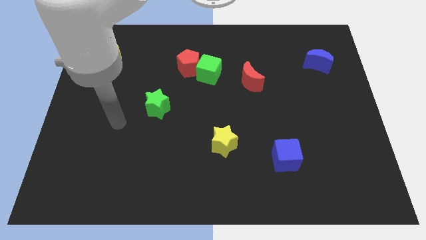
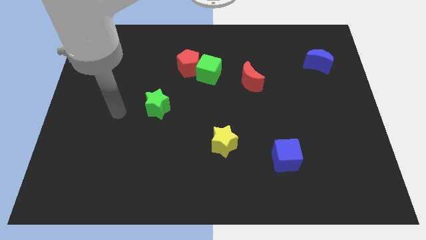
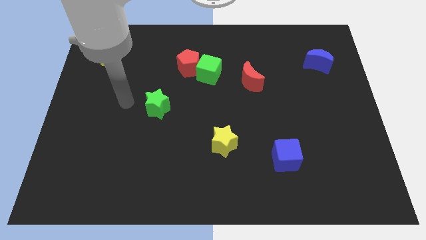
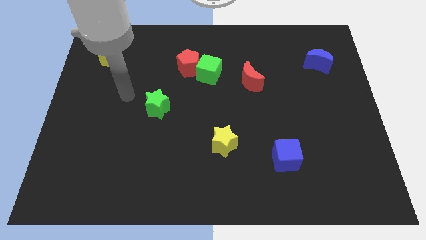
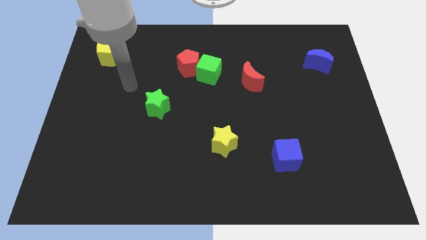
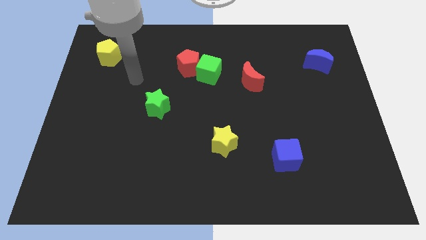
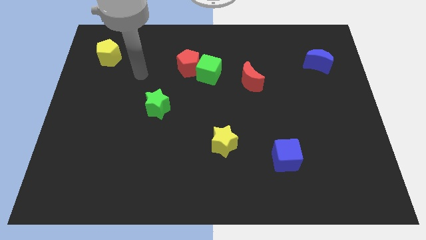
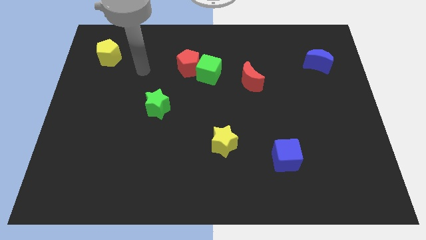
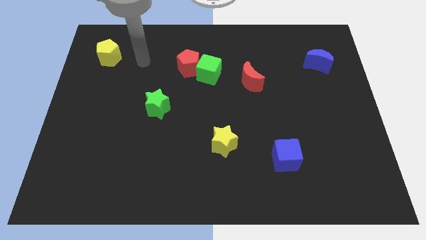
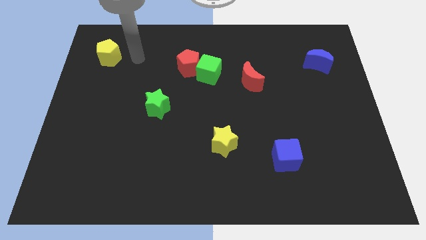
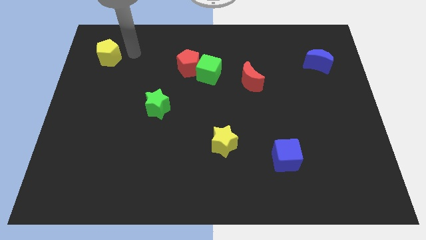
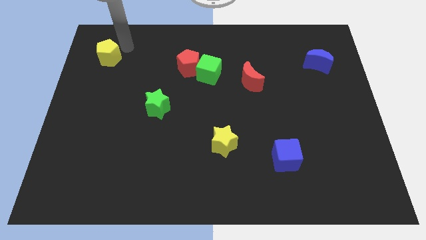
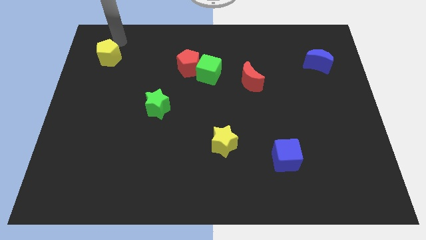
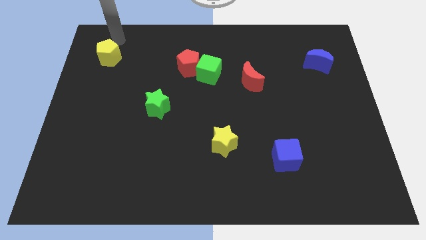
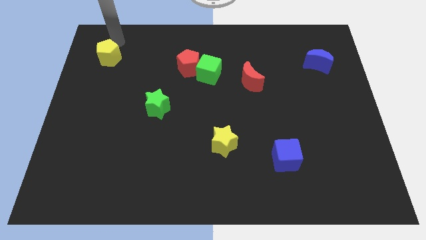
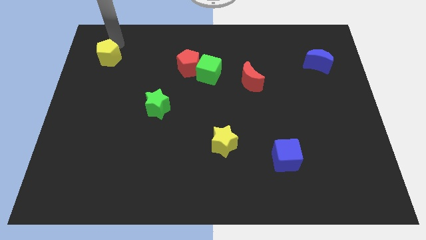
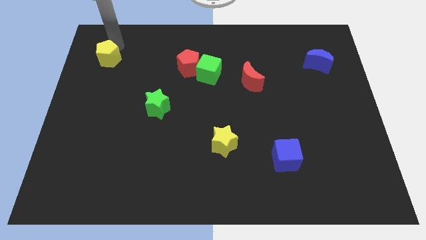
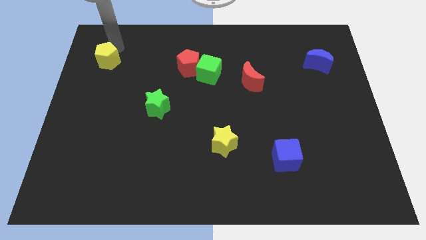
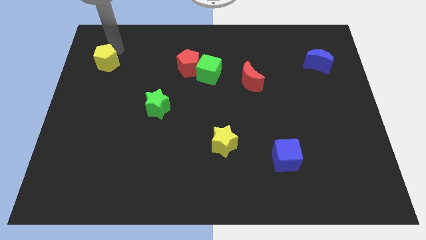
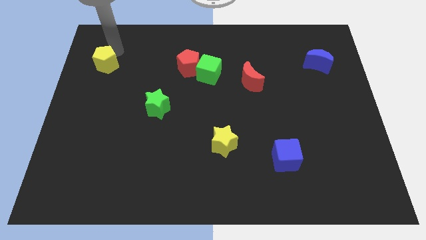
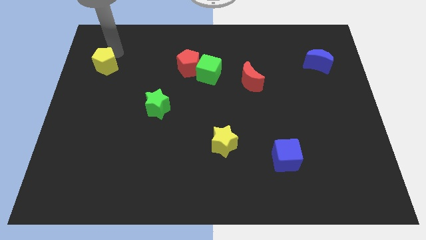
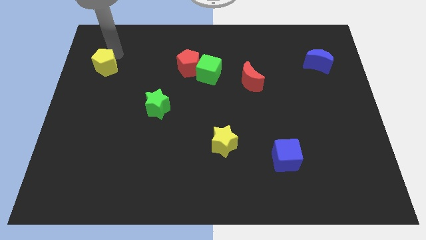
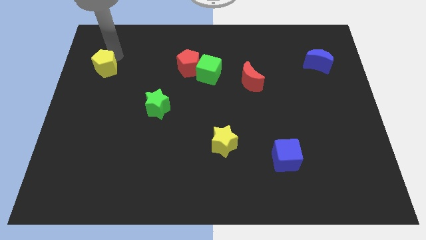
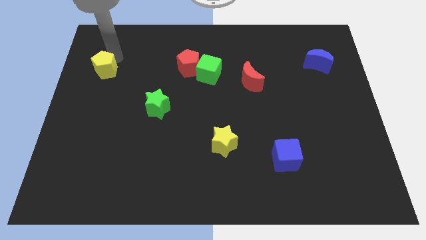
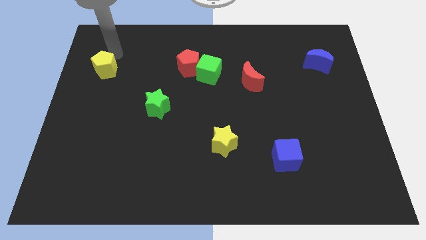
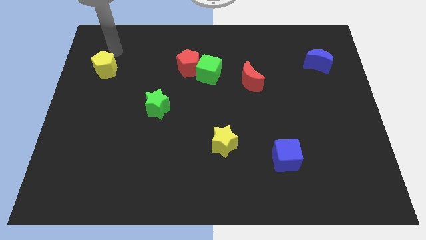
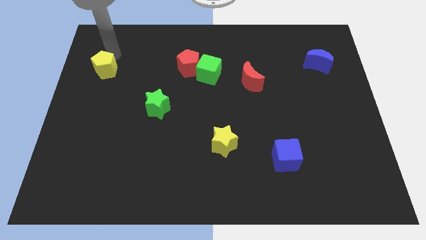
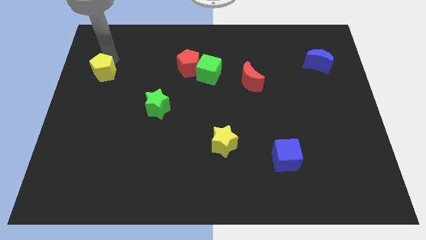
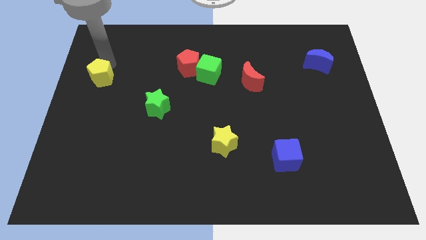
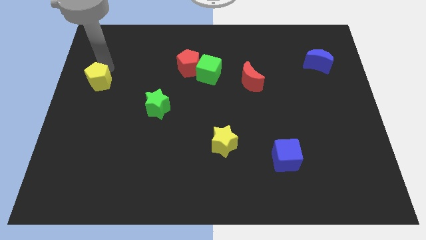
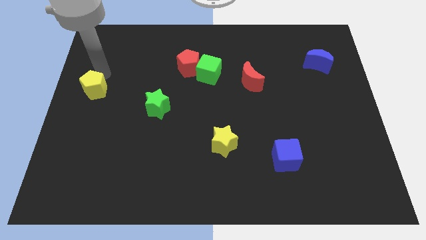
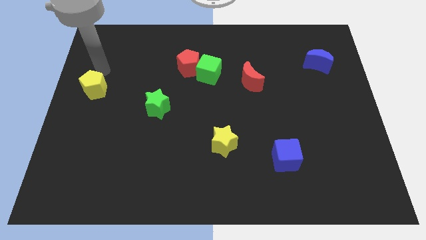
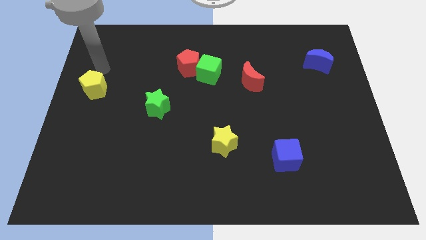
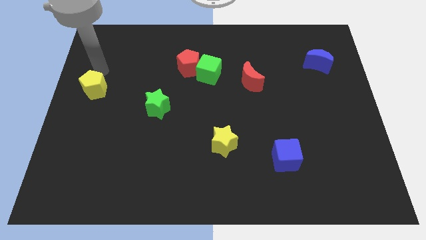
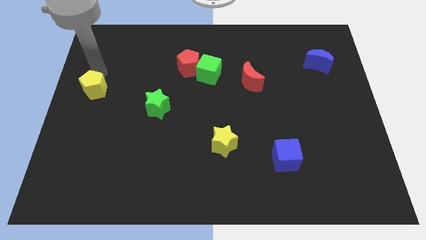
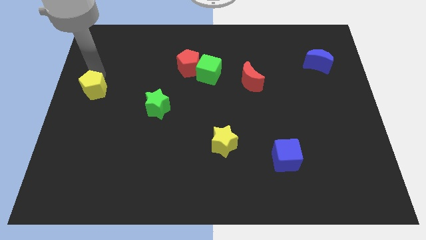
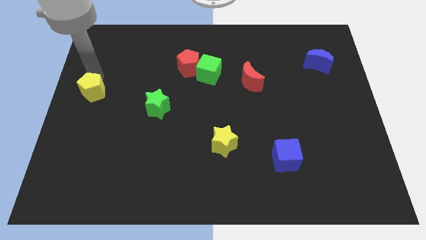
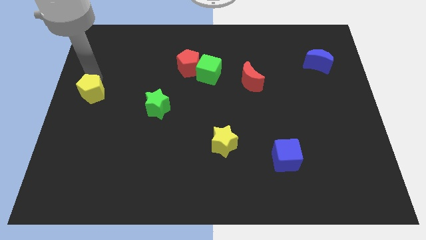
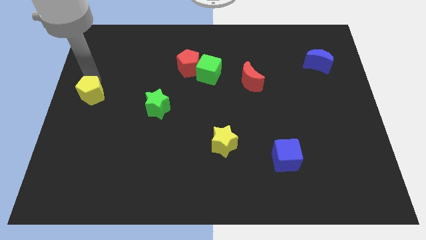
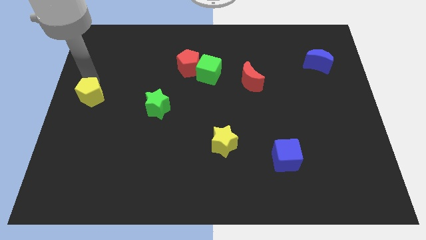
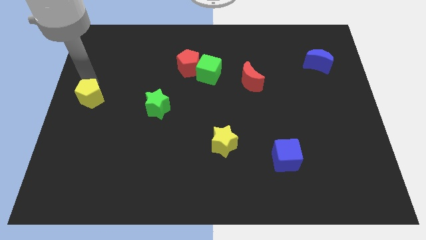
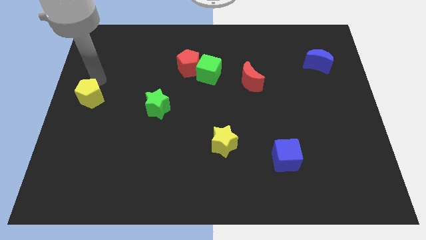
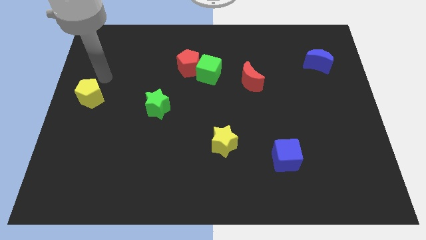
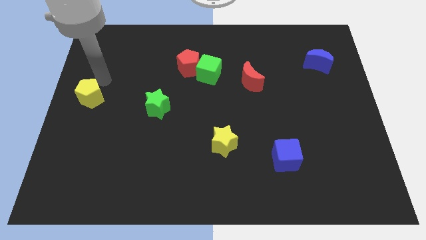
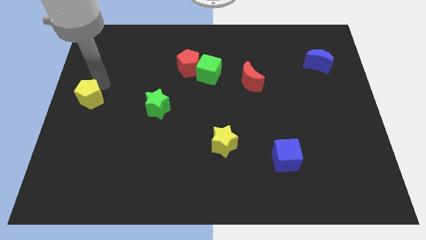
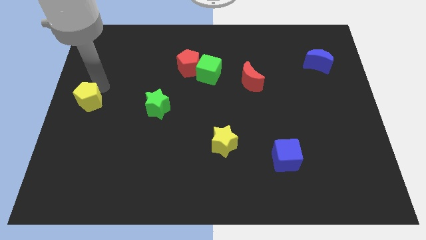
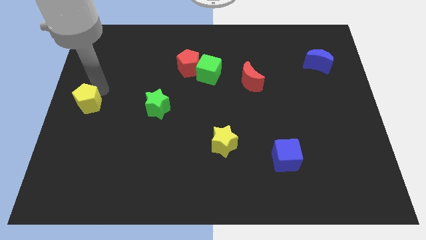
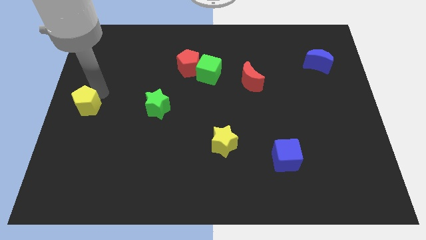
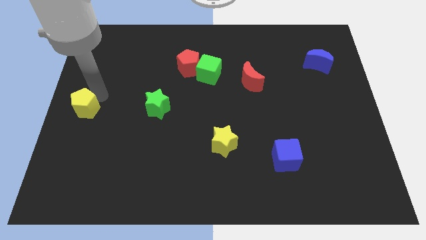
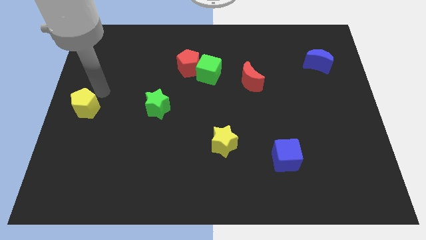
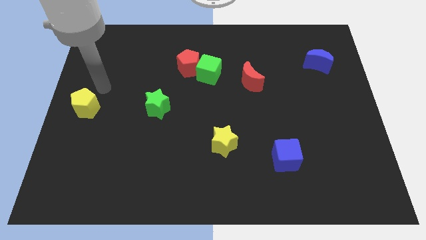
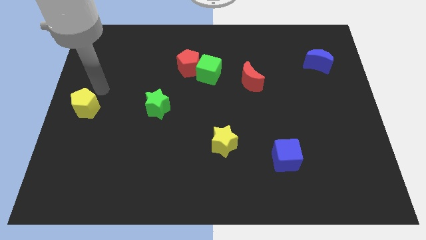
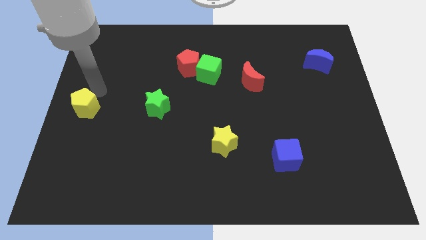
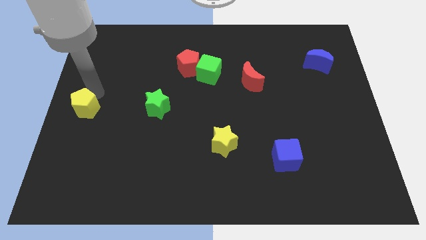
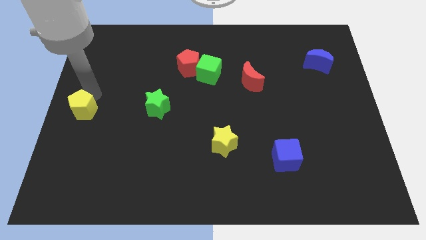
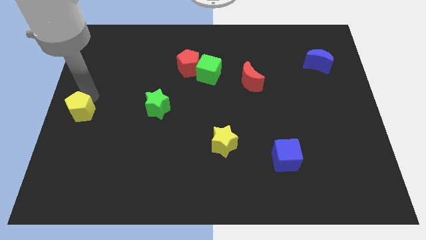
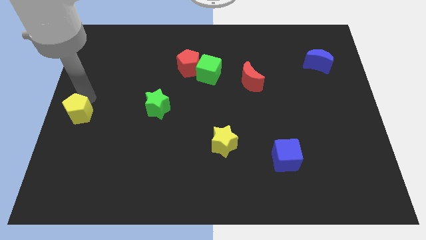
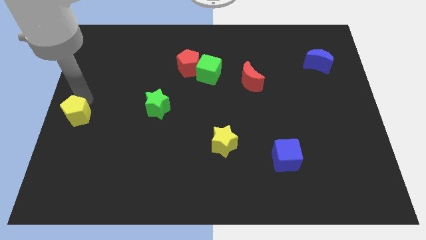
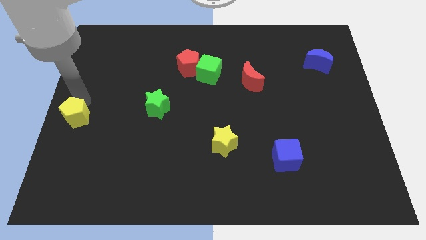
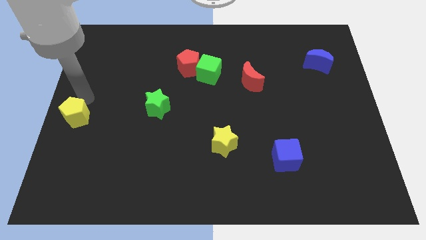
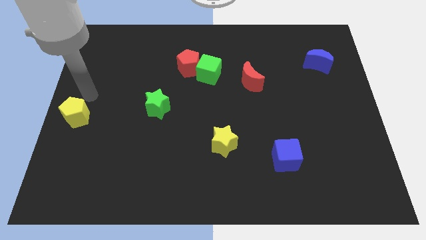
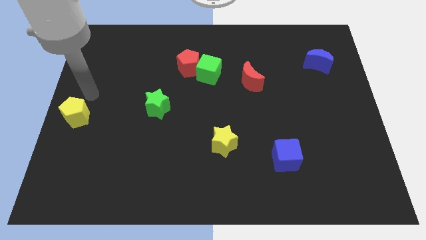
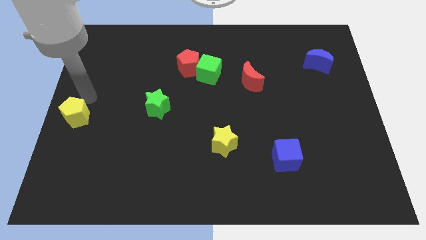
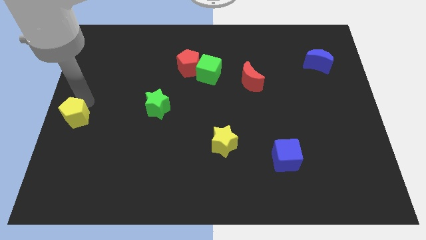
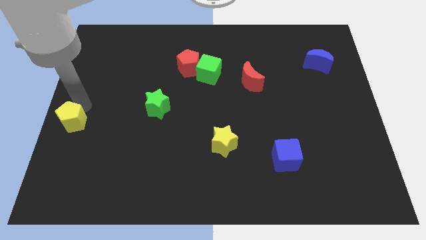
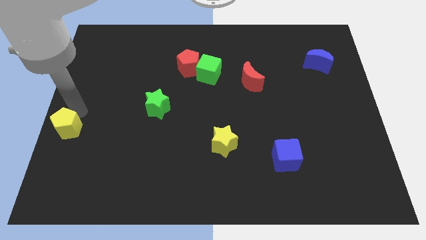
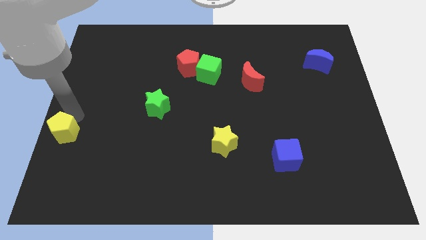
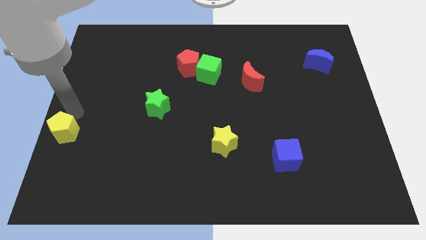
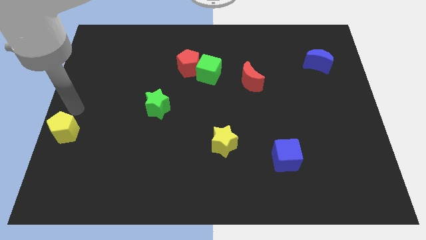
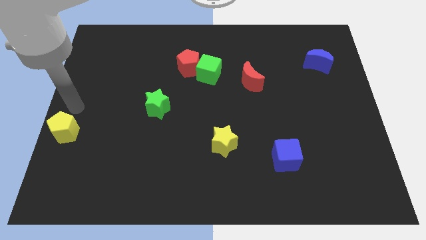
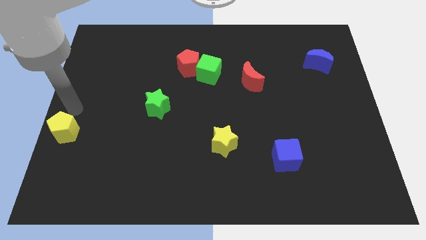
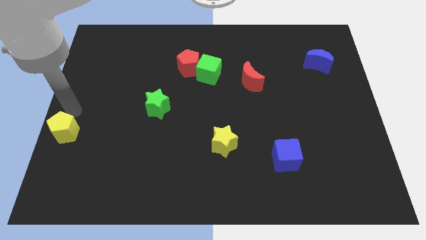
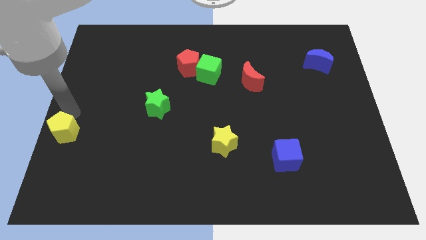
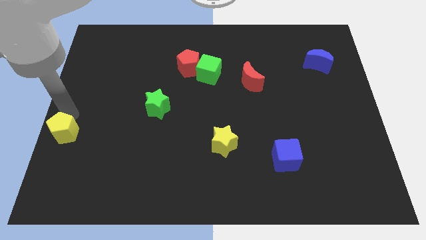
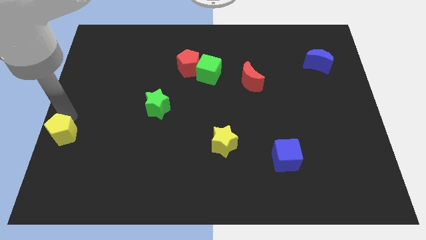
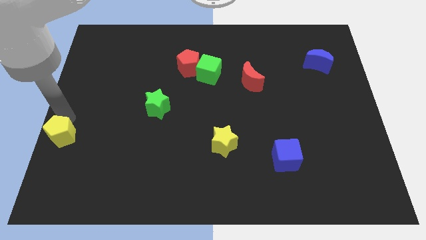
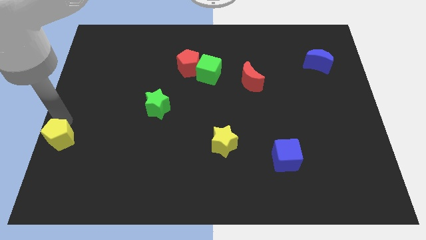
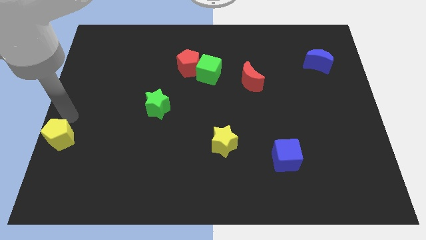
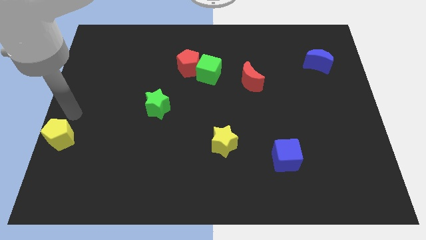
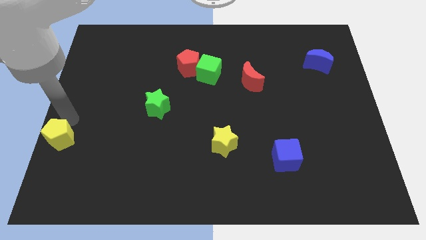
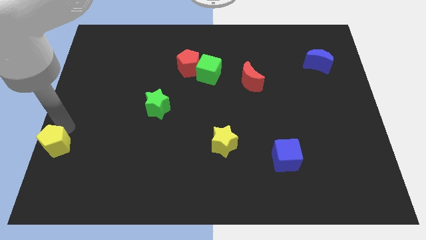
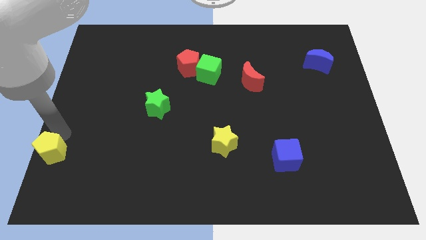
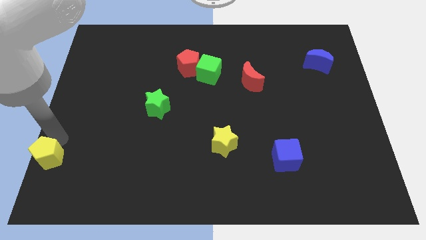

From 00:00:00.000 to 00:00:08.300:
put the yellow pentagon to the bottom left of the board
